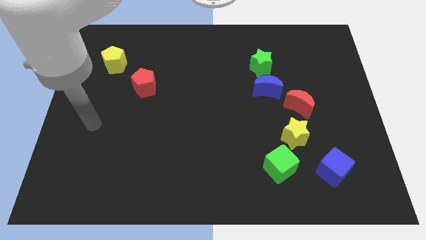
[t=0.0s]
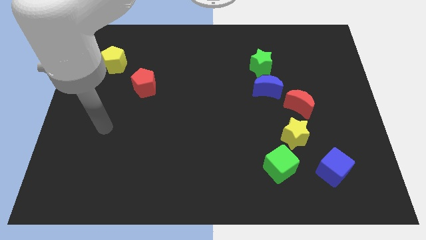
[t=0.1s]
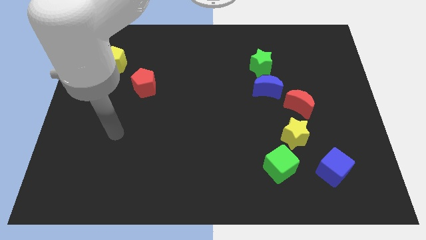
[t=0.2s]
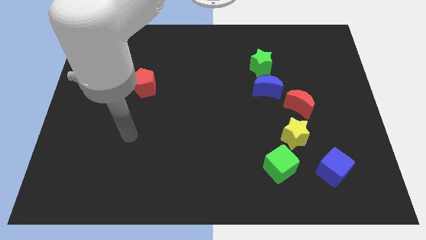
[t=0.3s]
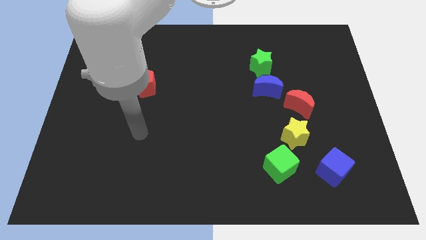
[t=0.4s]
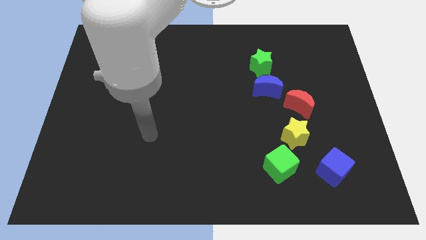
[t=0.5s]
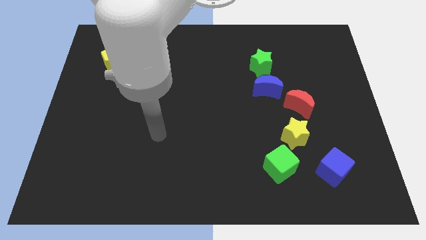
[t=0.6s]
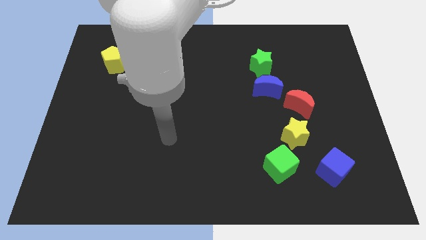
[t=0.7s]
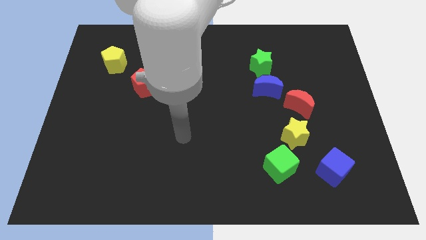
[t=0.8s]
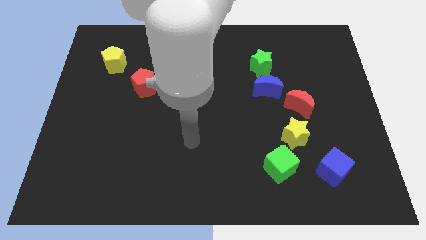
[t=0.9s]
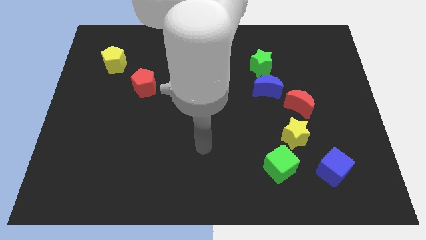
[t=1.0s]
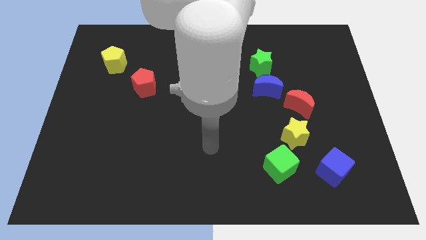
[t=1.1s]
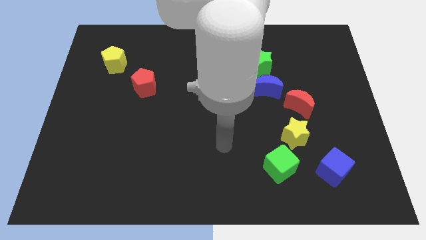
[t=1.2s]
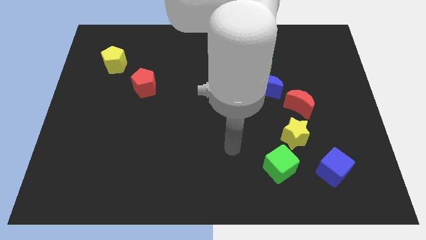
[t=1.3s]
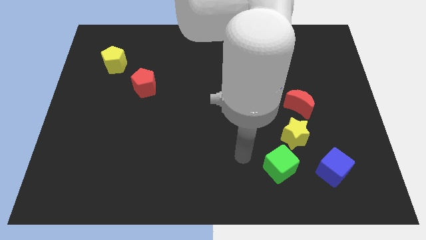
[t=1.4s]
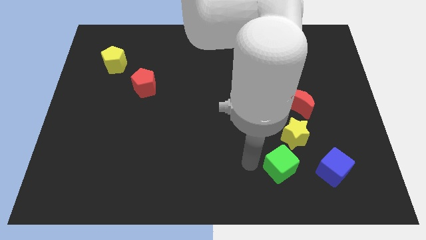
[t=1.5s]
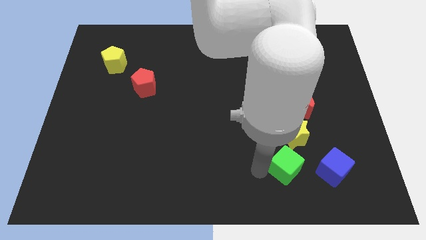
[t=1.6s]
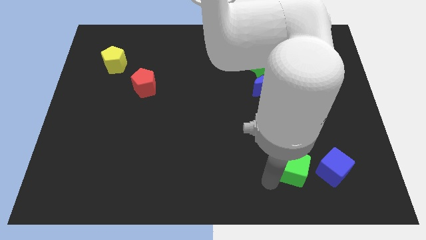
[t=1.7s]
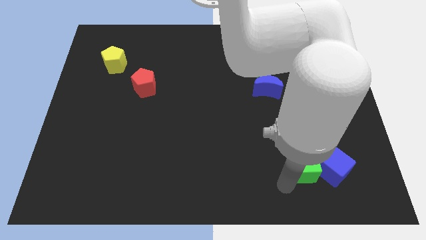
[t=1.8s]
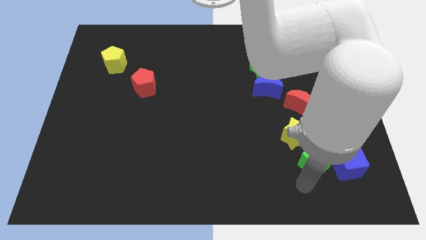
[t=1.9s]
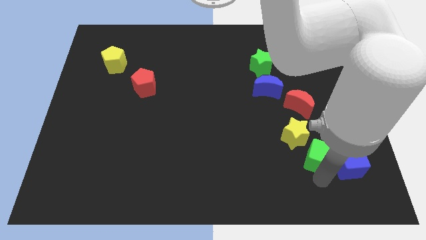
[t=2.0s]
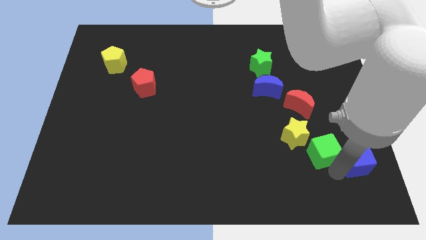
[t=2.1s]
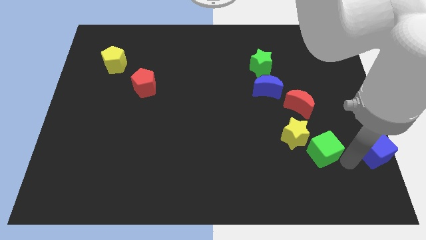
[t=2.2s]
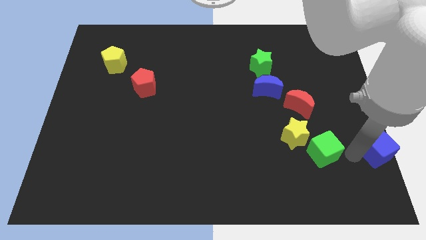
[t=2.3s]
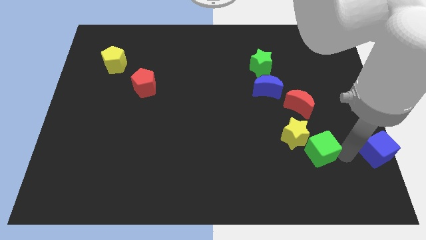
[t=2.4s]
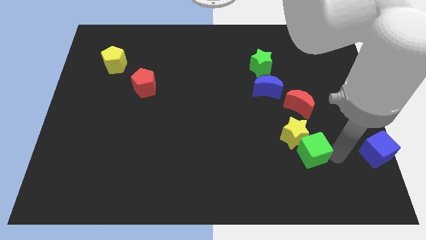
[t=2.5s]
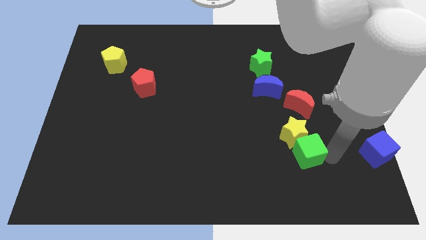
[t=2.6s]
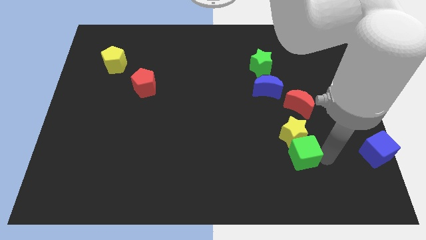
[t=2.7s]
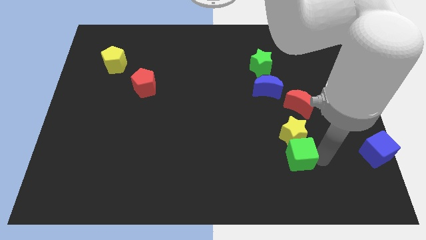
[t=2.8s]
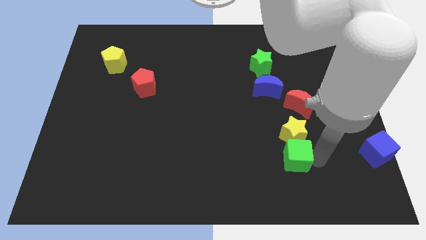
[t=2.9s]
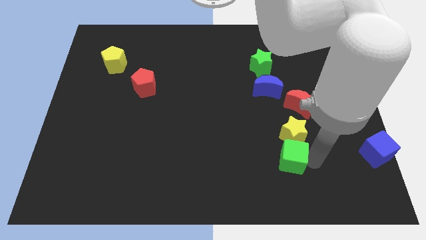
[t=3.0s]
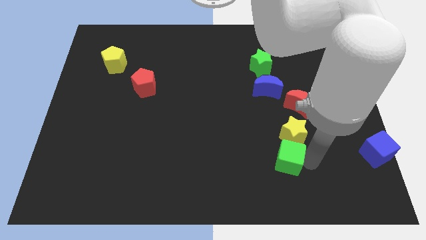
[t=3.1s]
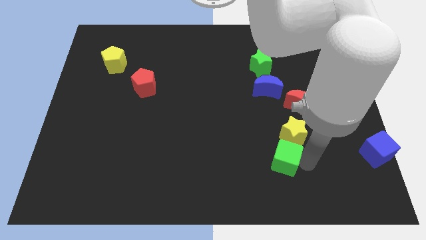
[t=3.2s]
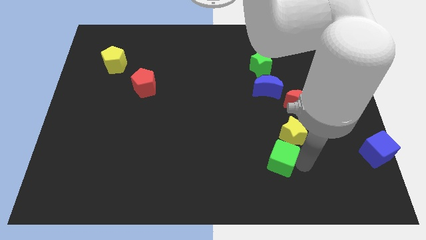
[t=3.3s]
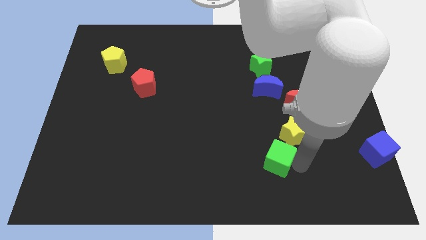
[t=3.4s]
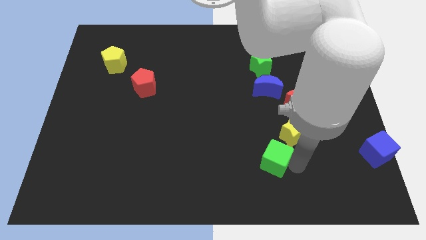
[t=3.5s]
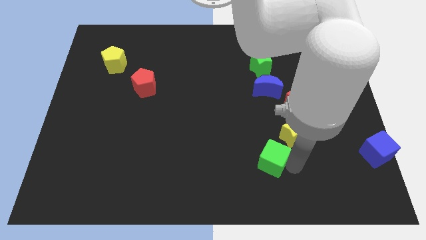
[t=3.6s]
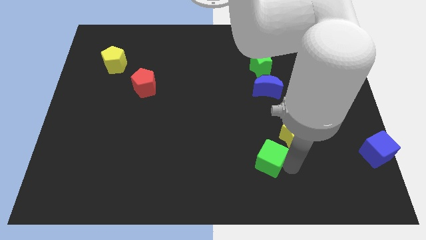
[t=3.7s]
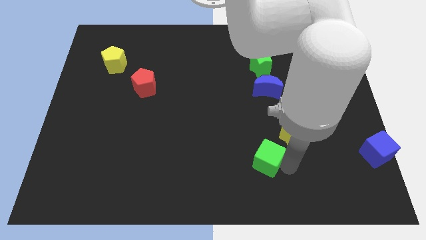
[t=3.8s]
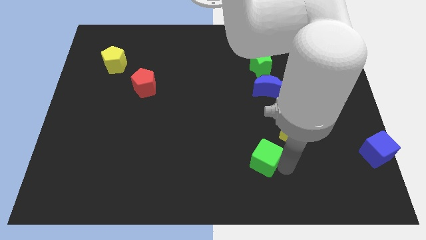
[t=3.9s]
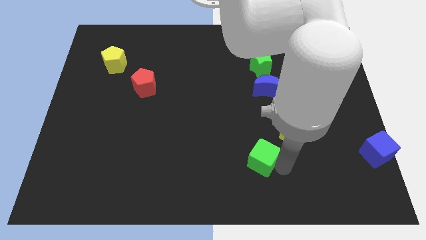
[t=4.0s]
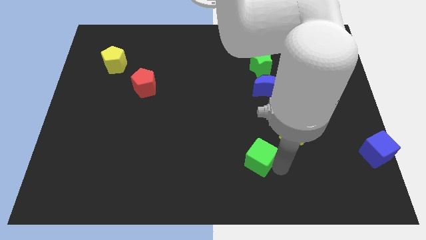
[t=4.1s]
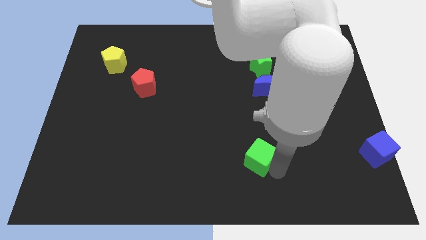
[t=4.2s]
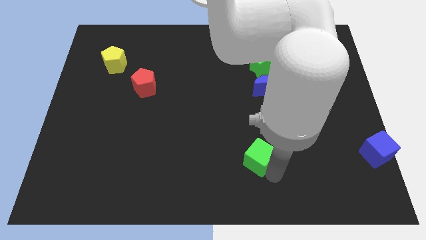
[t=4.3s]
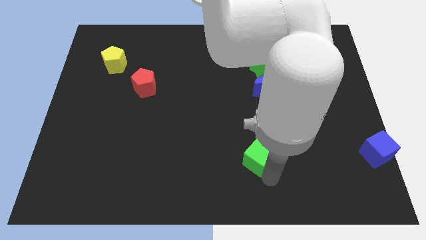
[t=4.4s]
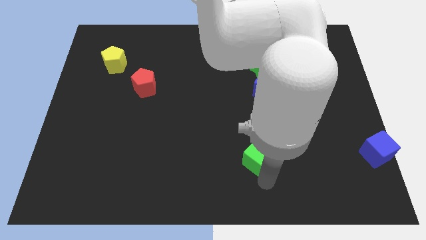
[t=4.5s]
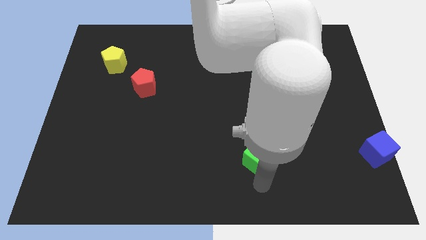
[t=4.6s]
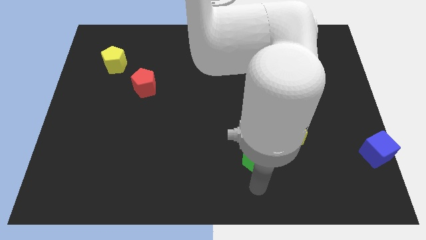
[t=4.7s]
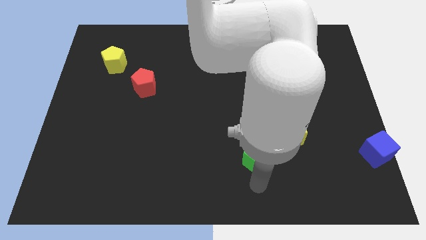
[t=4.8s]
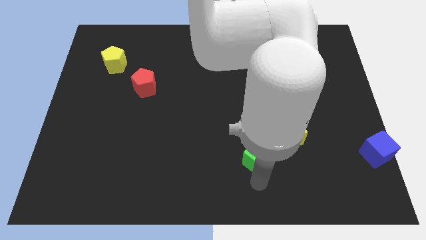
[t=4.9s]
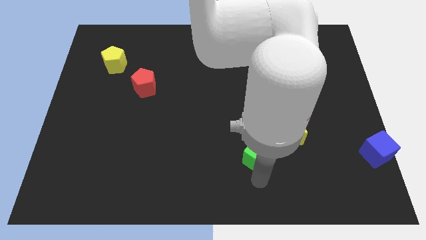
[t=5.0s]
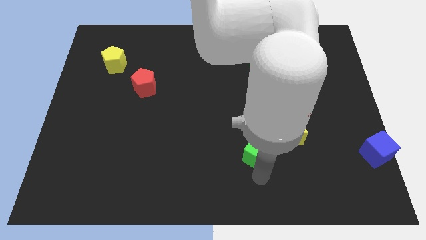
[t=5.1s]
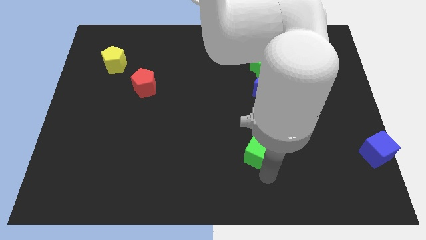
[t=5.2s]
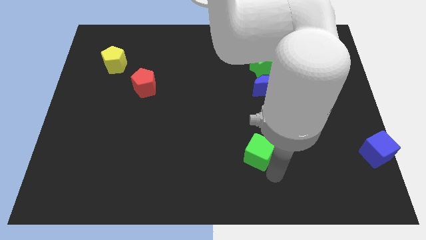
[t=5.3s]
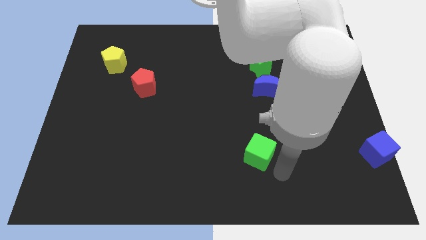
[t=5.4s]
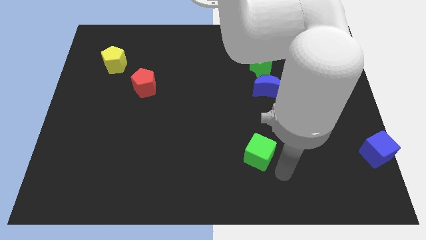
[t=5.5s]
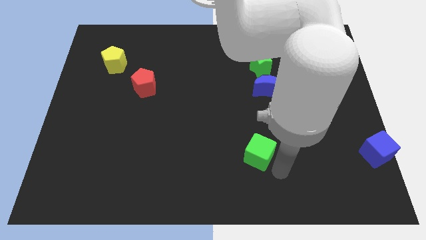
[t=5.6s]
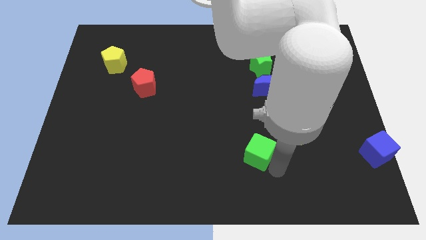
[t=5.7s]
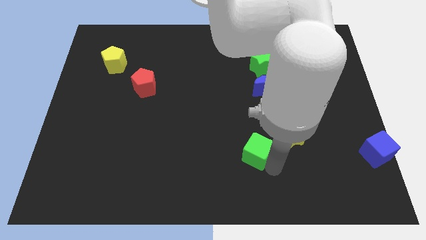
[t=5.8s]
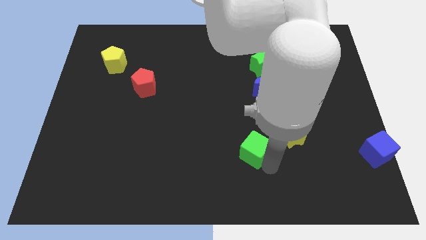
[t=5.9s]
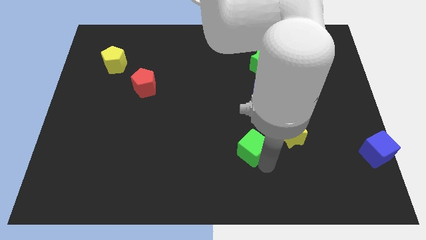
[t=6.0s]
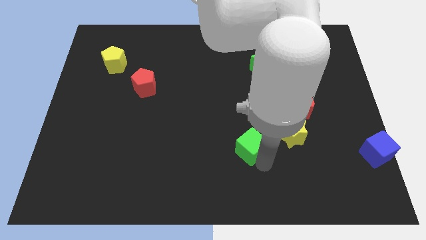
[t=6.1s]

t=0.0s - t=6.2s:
push the green cube diagonally up and to the left a little bit

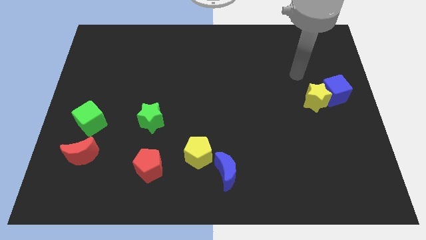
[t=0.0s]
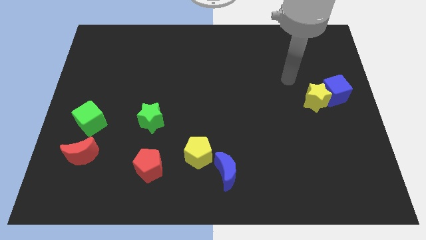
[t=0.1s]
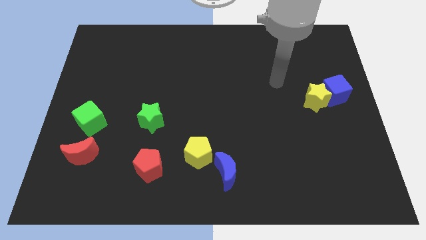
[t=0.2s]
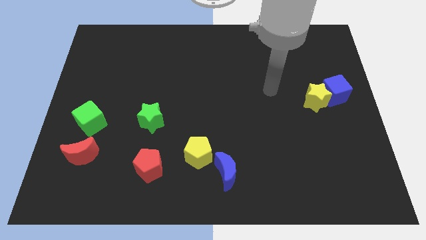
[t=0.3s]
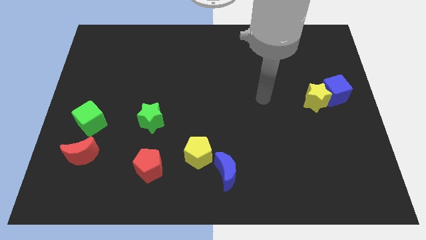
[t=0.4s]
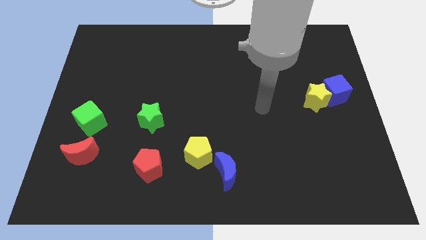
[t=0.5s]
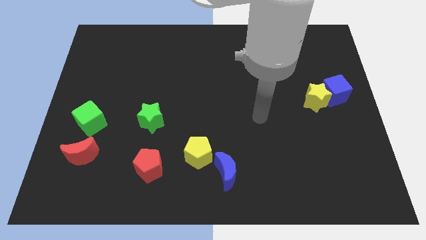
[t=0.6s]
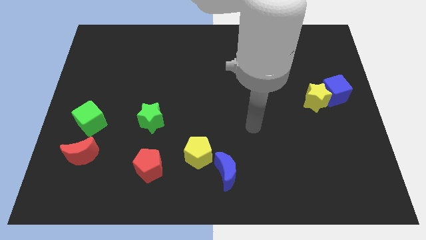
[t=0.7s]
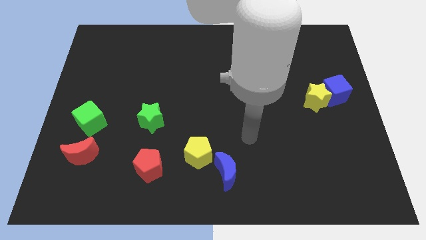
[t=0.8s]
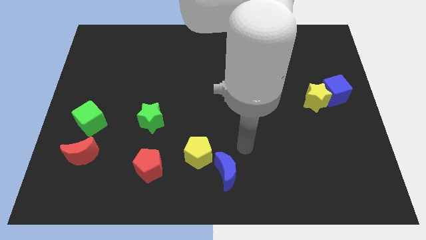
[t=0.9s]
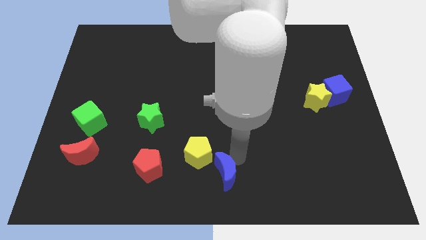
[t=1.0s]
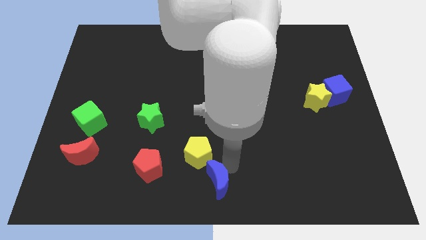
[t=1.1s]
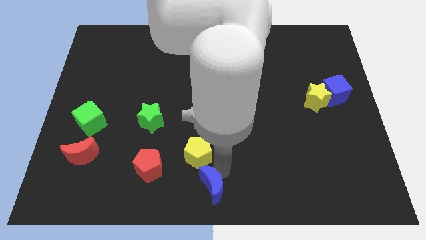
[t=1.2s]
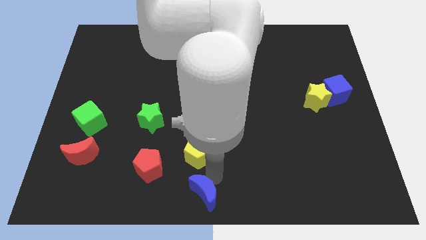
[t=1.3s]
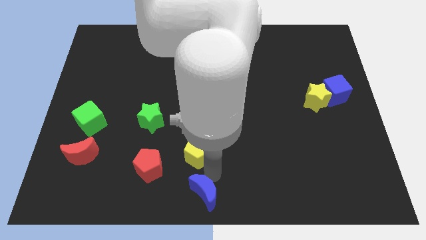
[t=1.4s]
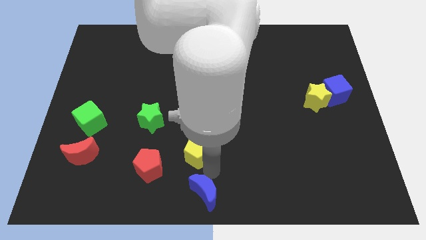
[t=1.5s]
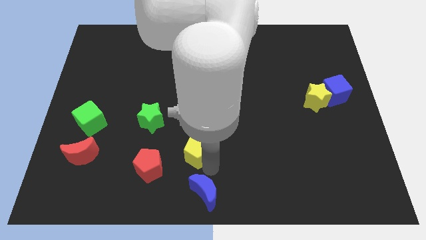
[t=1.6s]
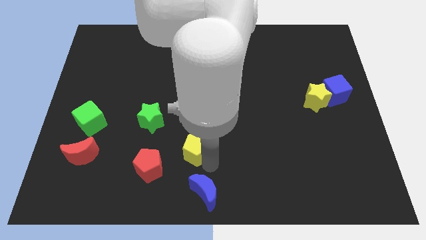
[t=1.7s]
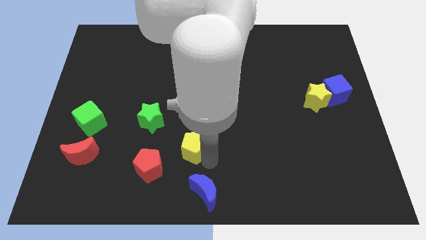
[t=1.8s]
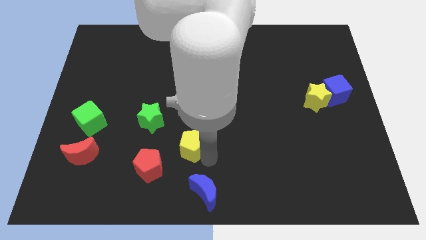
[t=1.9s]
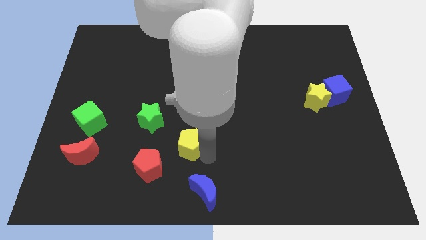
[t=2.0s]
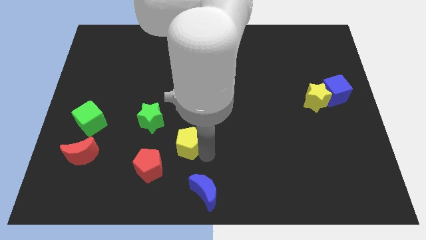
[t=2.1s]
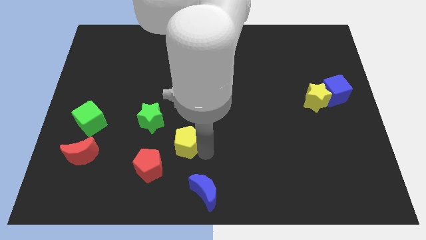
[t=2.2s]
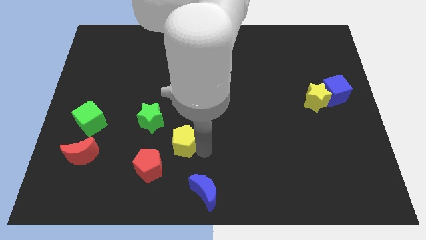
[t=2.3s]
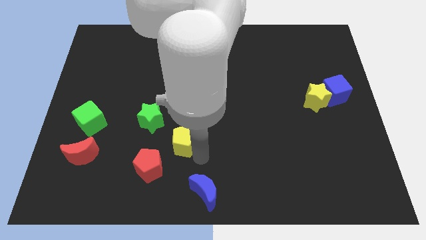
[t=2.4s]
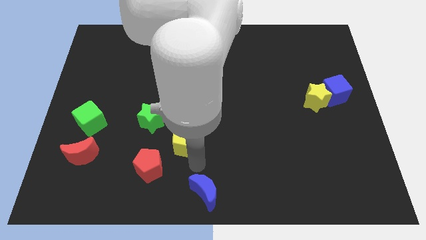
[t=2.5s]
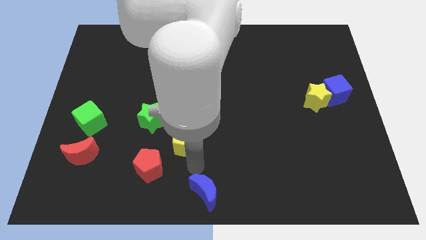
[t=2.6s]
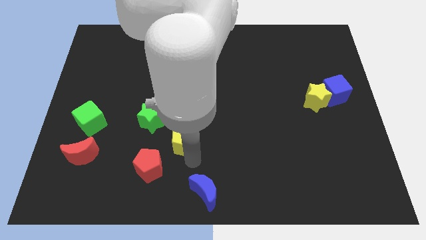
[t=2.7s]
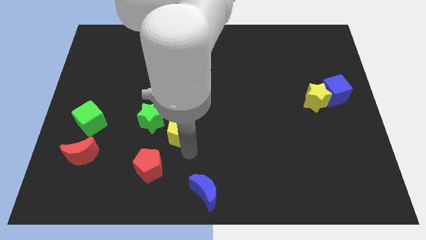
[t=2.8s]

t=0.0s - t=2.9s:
slightly push the yellow pentagon diagonally upwards and to the left
